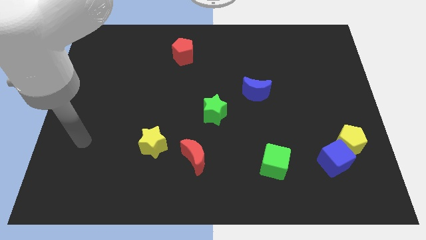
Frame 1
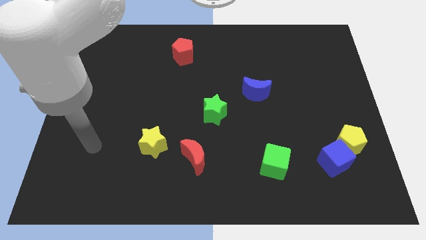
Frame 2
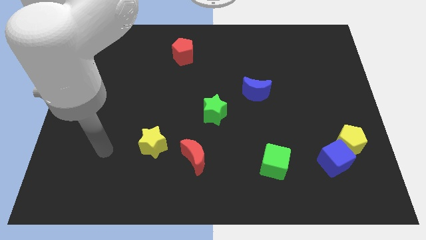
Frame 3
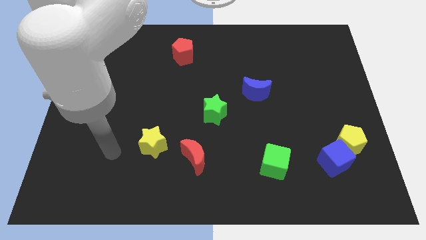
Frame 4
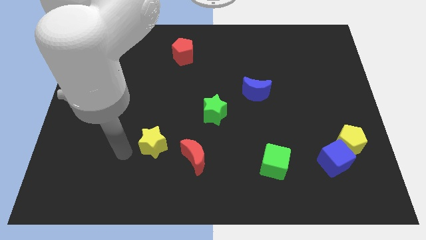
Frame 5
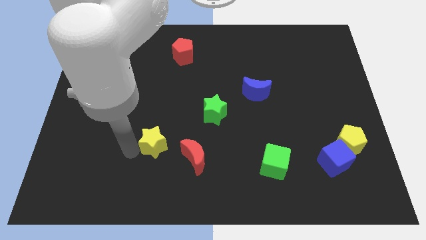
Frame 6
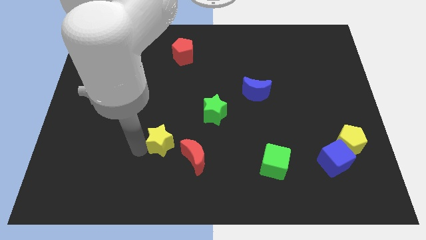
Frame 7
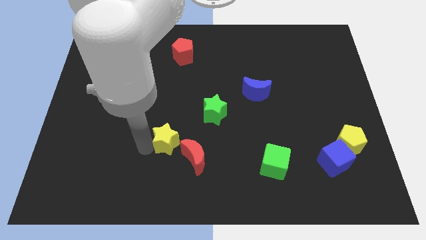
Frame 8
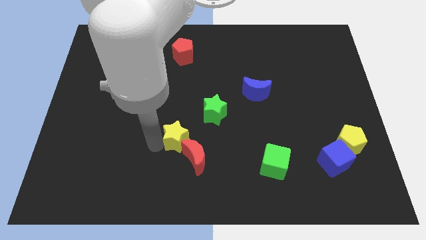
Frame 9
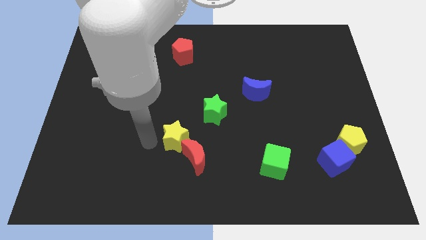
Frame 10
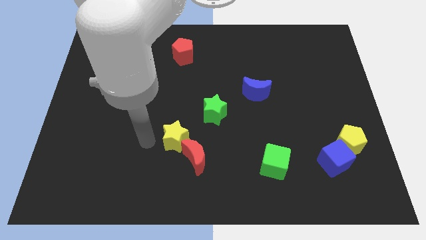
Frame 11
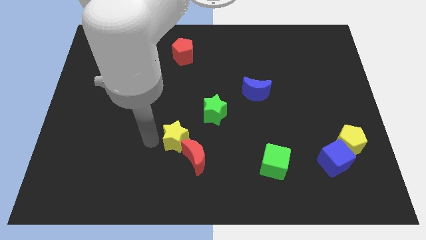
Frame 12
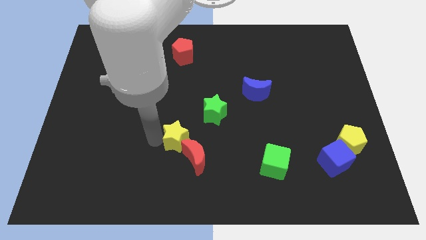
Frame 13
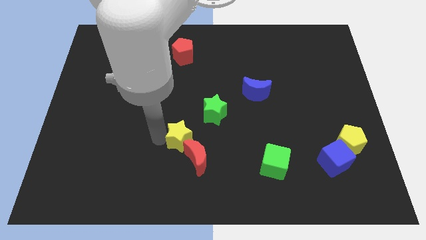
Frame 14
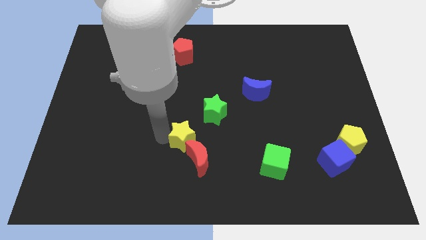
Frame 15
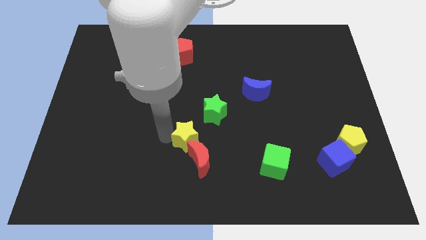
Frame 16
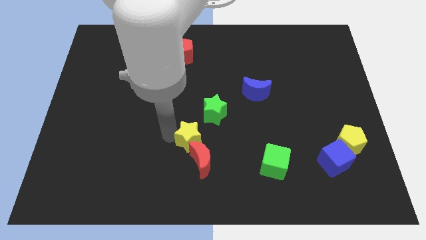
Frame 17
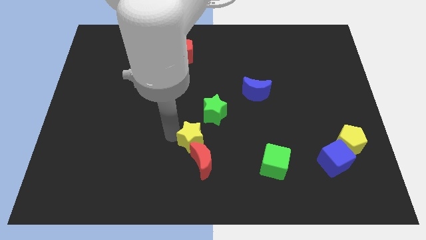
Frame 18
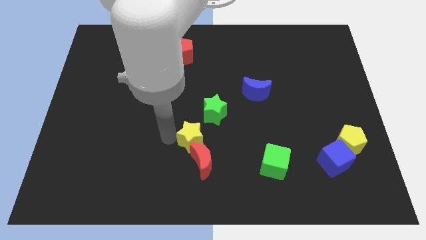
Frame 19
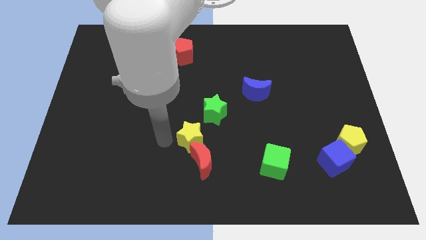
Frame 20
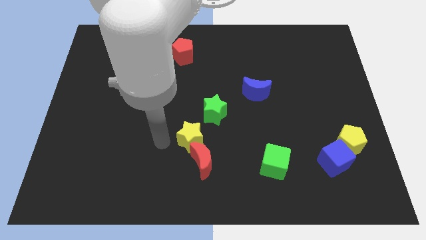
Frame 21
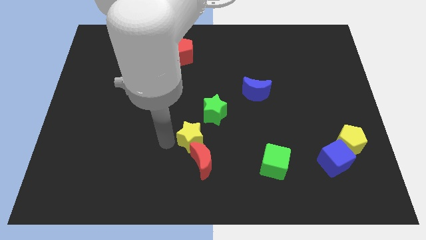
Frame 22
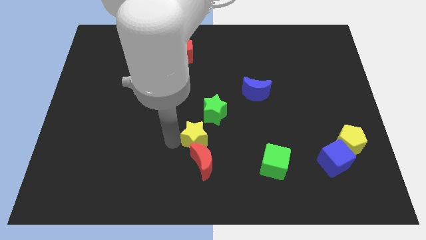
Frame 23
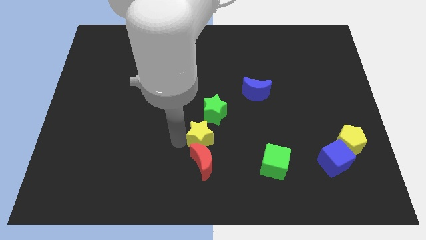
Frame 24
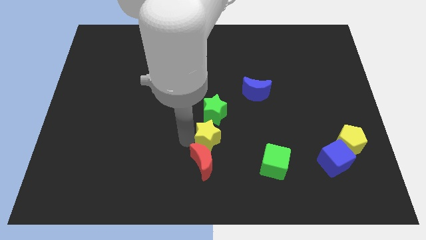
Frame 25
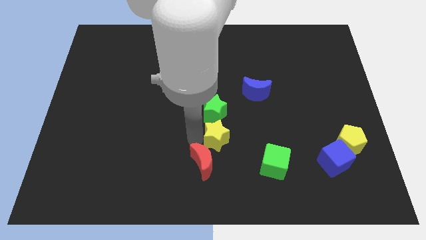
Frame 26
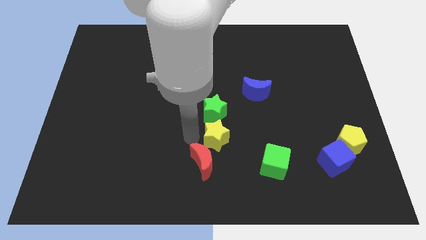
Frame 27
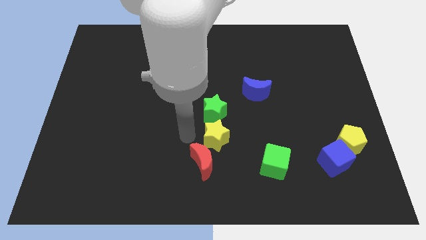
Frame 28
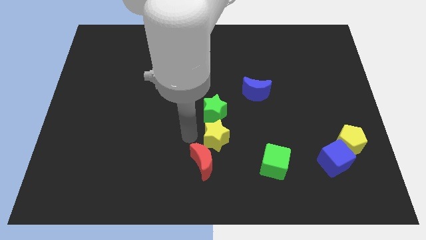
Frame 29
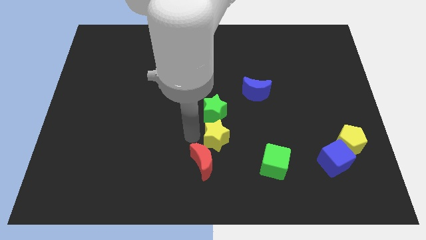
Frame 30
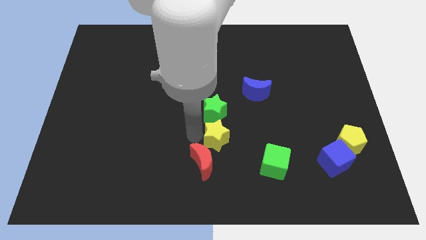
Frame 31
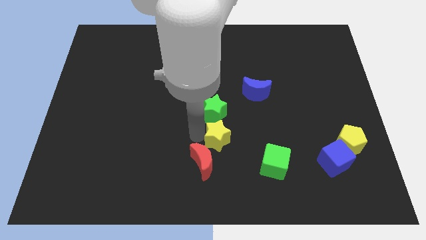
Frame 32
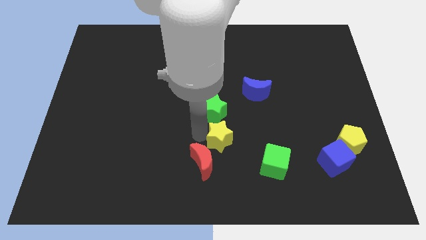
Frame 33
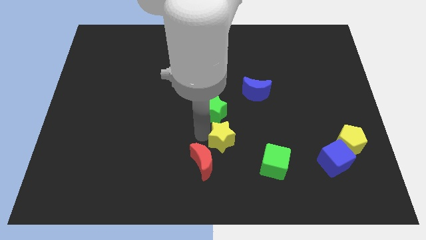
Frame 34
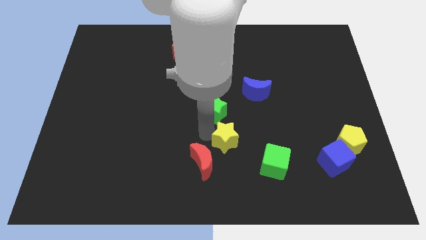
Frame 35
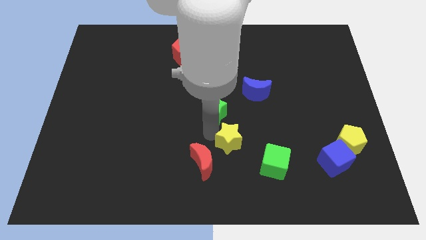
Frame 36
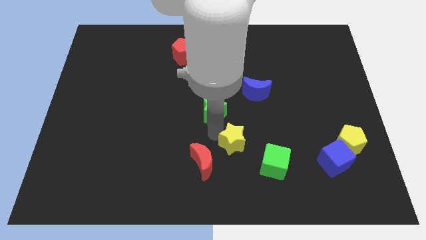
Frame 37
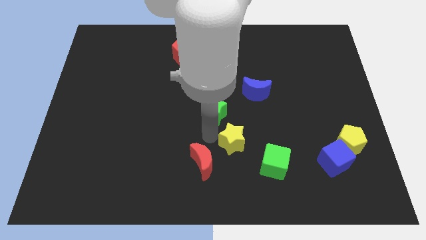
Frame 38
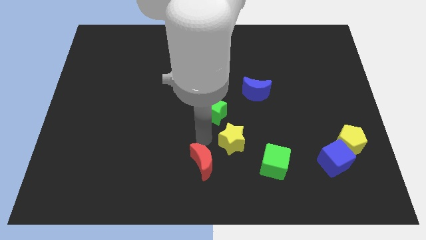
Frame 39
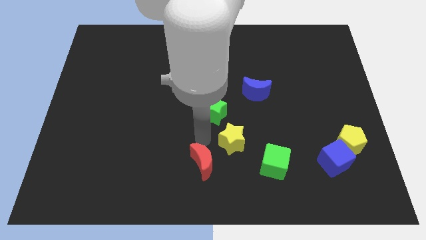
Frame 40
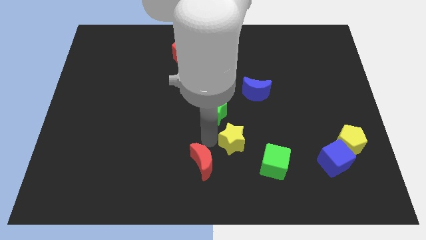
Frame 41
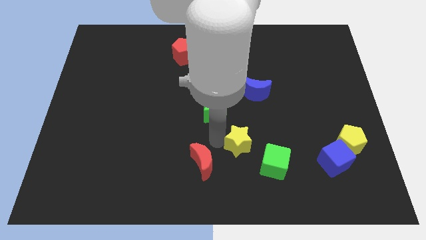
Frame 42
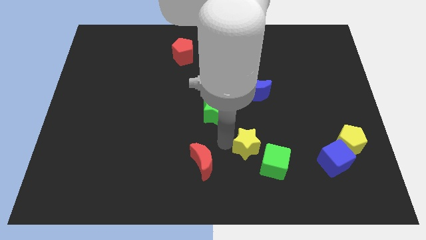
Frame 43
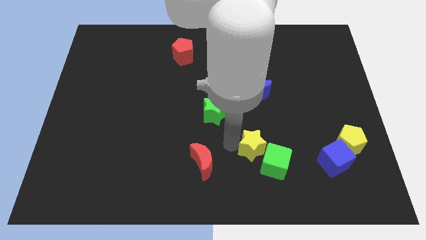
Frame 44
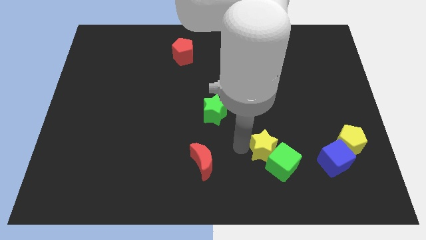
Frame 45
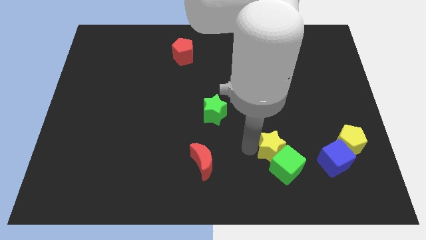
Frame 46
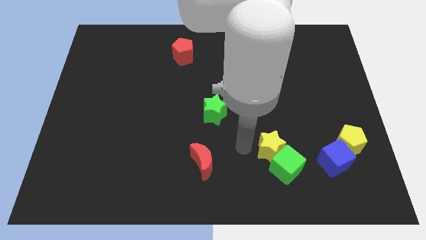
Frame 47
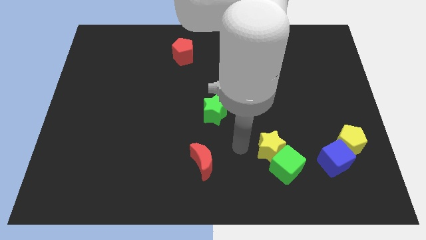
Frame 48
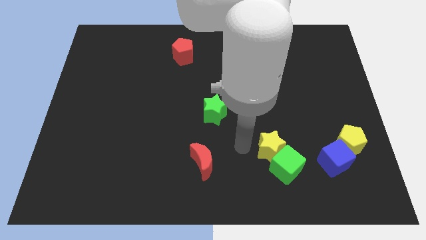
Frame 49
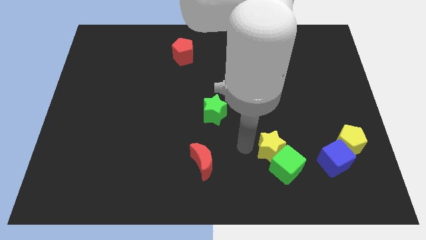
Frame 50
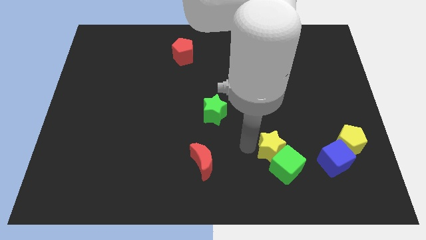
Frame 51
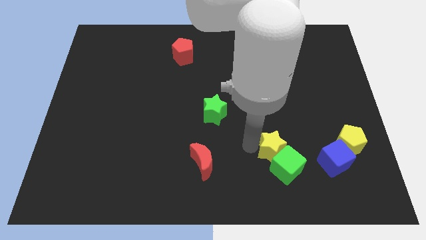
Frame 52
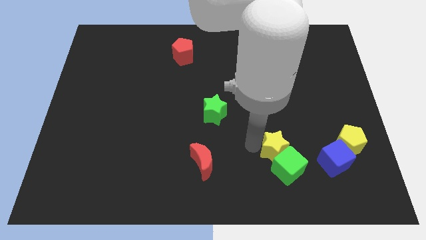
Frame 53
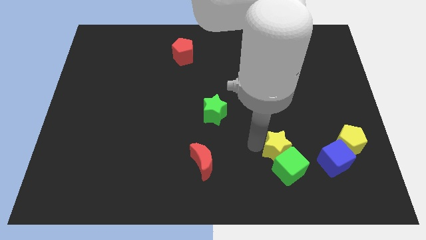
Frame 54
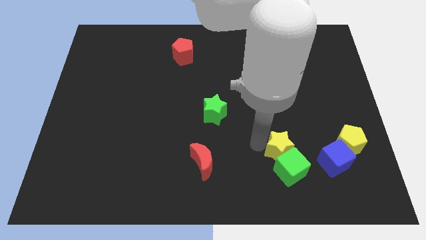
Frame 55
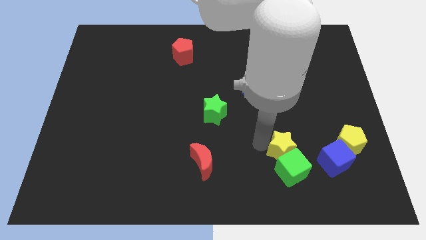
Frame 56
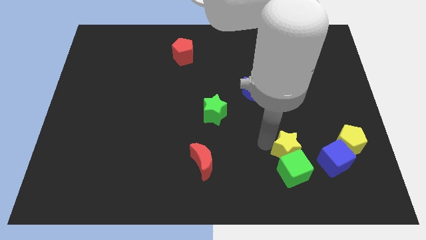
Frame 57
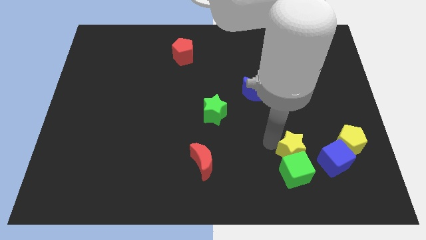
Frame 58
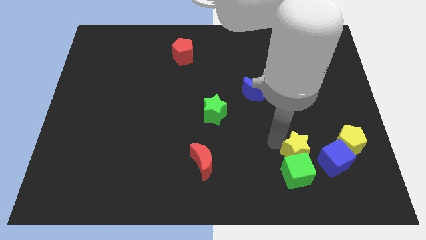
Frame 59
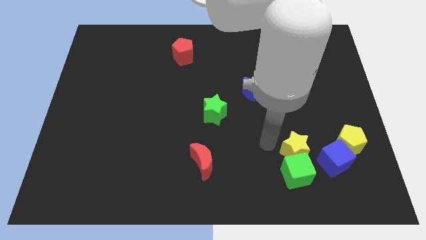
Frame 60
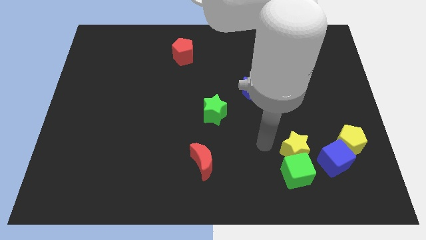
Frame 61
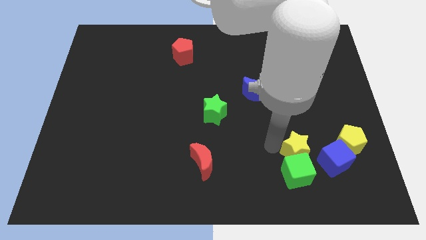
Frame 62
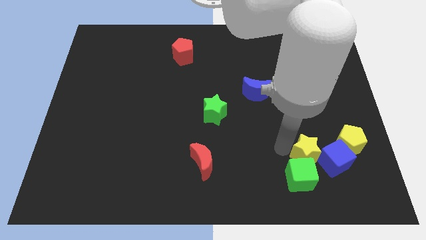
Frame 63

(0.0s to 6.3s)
move the yellow star close to the blue cube
